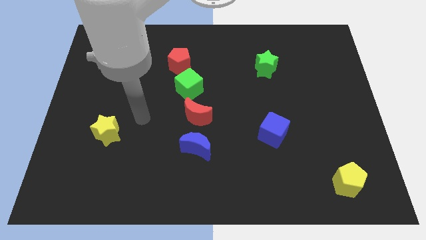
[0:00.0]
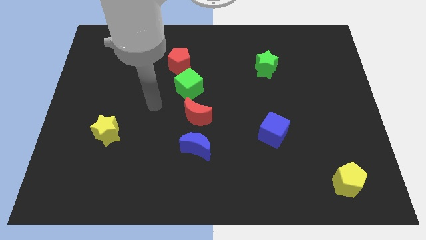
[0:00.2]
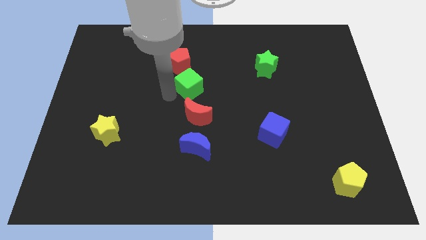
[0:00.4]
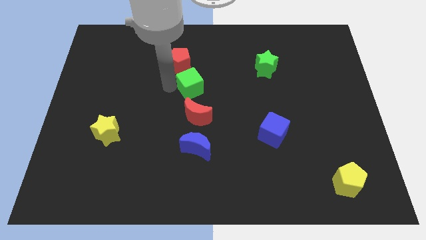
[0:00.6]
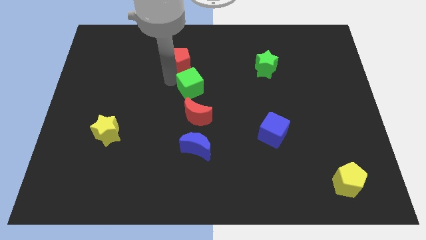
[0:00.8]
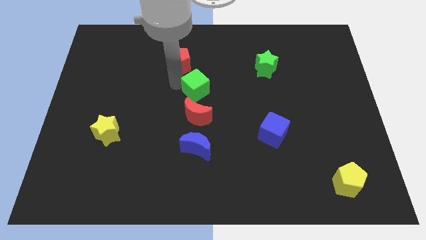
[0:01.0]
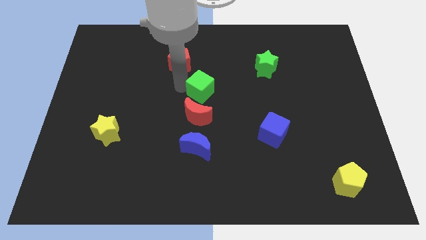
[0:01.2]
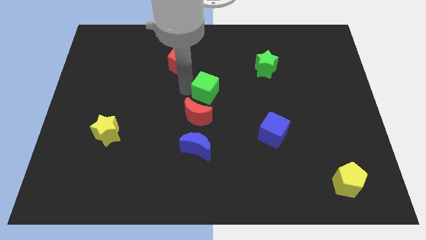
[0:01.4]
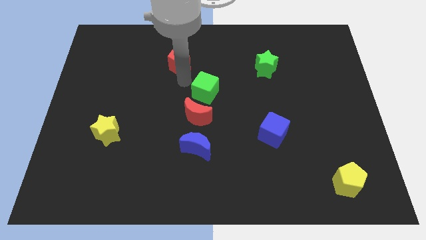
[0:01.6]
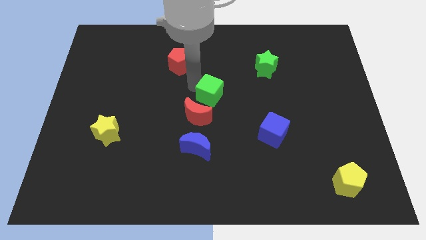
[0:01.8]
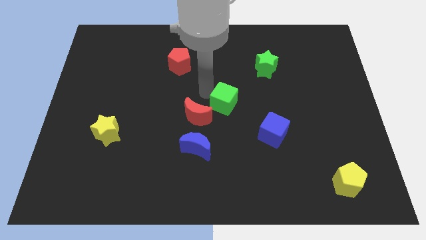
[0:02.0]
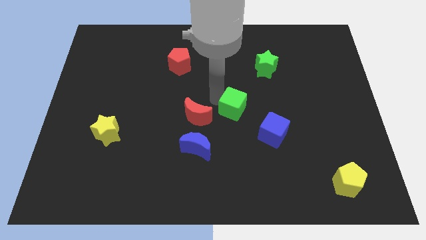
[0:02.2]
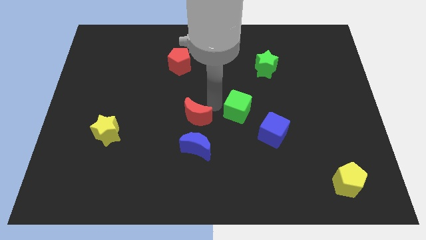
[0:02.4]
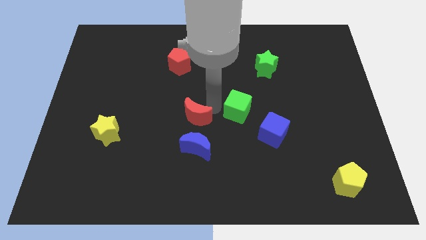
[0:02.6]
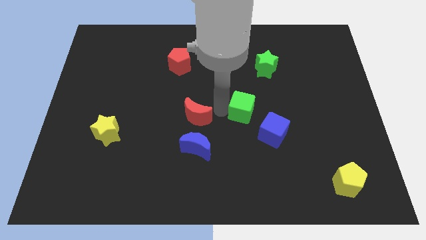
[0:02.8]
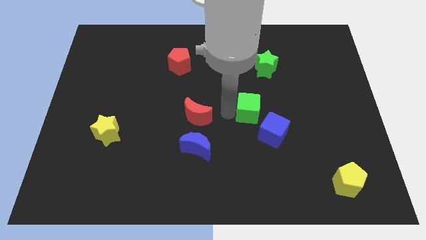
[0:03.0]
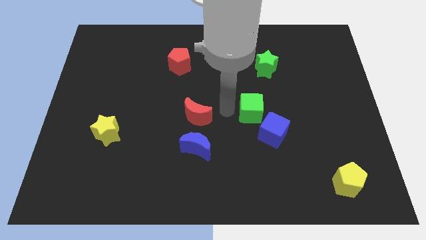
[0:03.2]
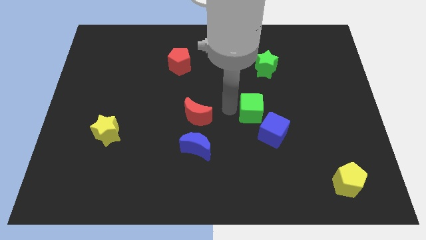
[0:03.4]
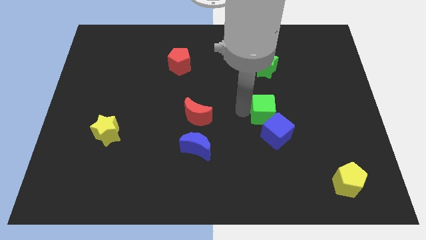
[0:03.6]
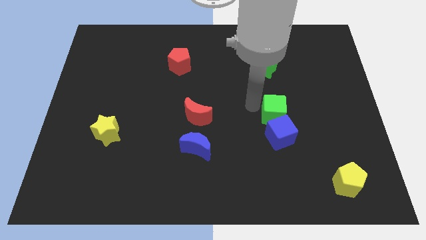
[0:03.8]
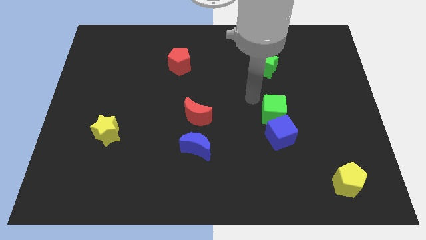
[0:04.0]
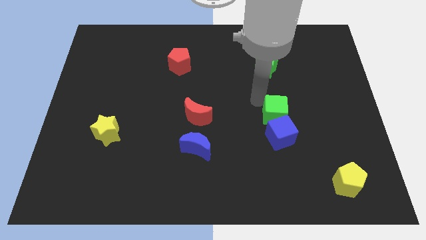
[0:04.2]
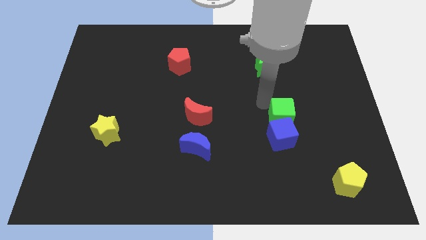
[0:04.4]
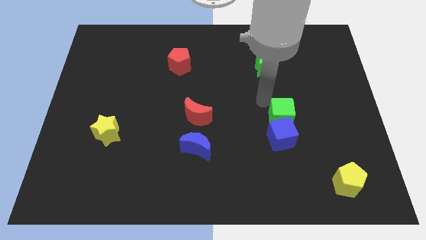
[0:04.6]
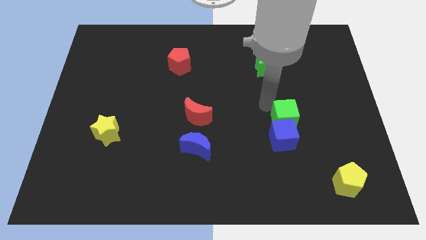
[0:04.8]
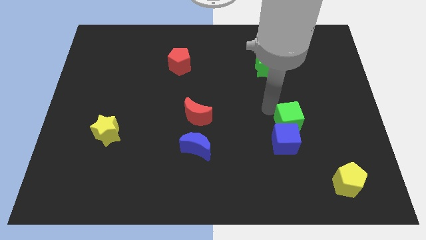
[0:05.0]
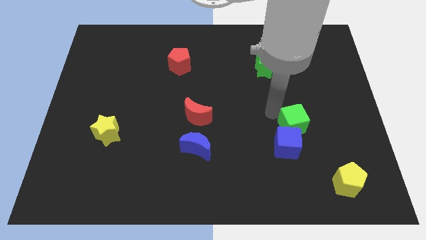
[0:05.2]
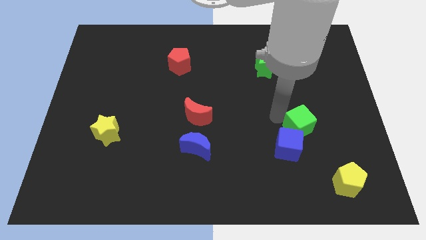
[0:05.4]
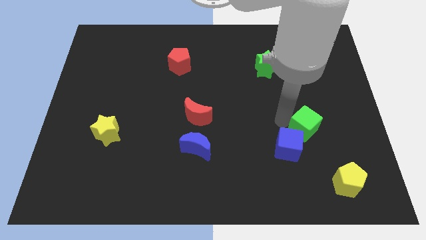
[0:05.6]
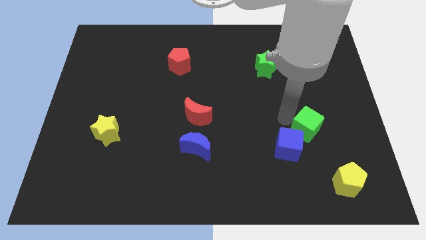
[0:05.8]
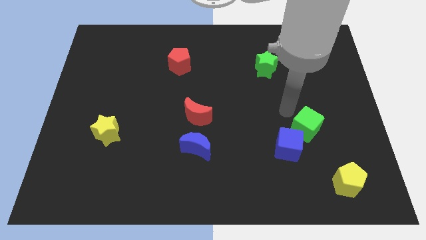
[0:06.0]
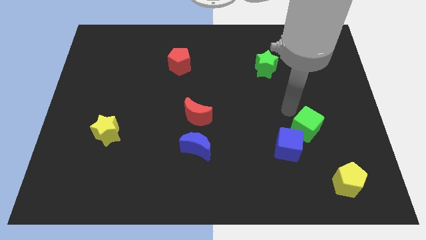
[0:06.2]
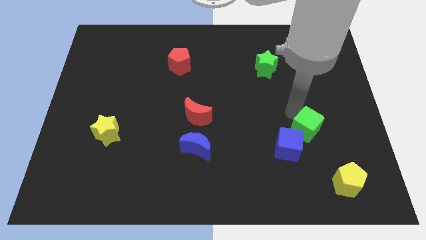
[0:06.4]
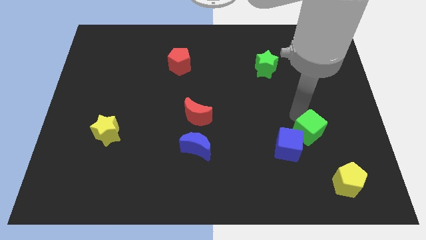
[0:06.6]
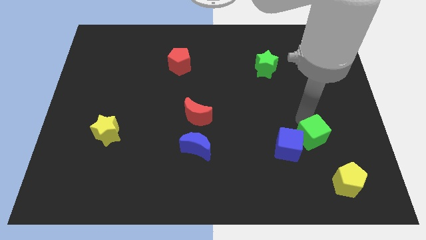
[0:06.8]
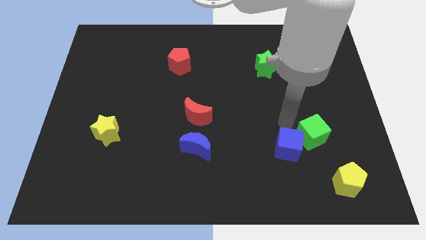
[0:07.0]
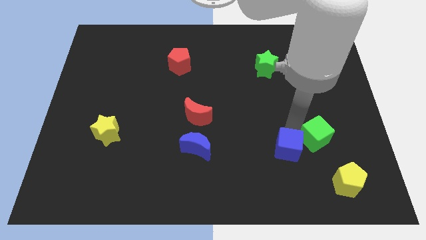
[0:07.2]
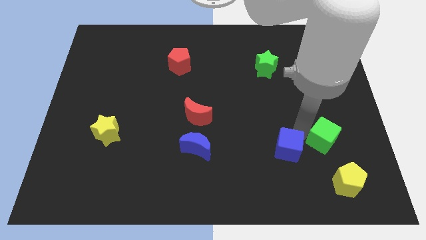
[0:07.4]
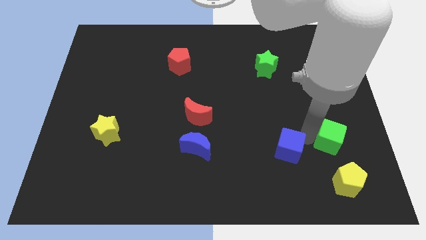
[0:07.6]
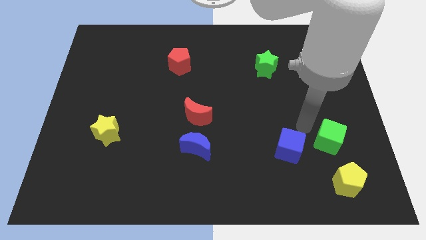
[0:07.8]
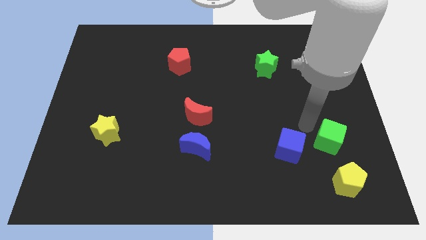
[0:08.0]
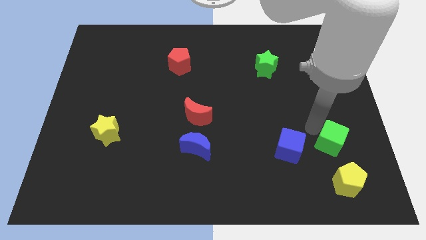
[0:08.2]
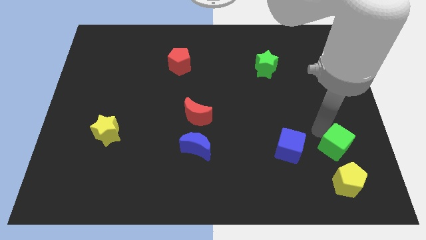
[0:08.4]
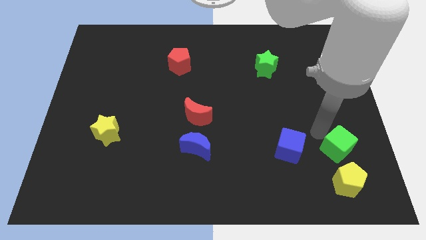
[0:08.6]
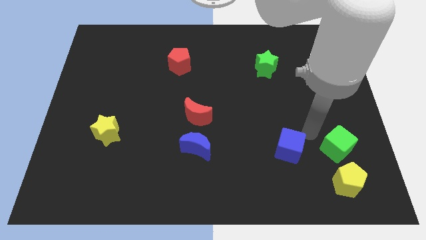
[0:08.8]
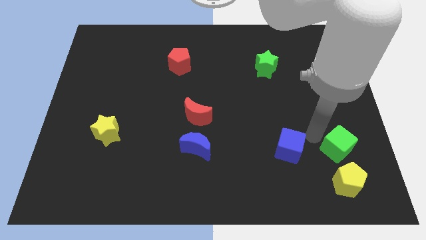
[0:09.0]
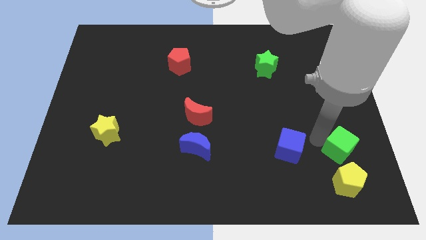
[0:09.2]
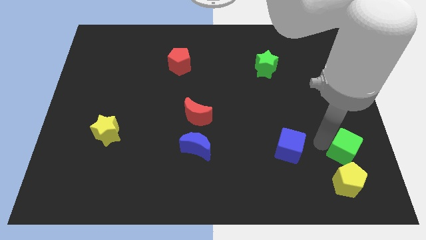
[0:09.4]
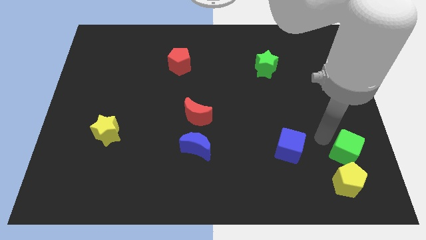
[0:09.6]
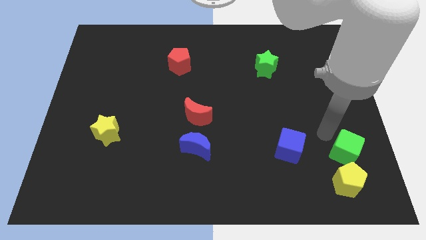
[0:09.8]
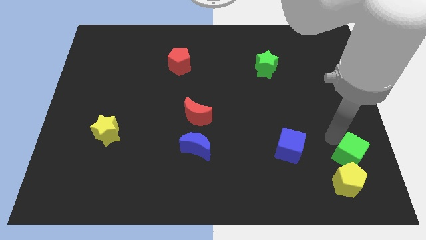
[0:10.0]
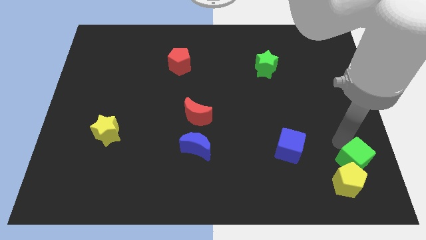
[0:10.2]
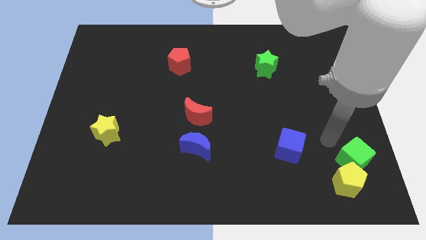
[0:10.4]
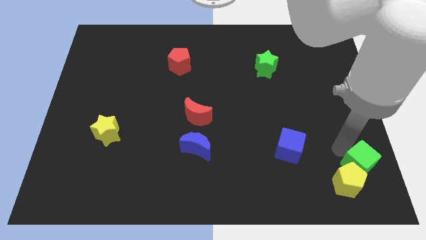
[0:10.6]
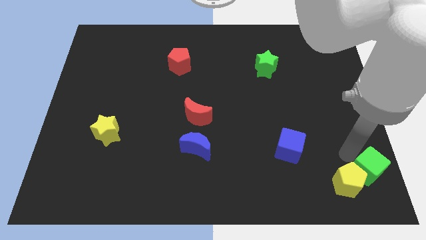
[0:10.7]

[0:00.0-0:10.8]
push the green cube to the bottom right

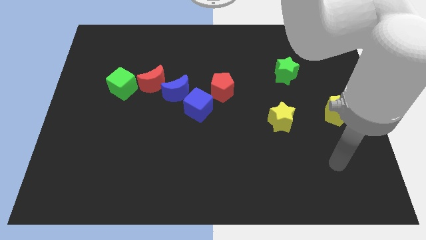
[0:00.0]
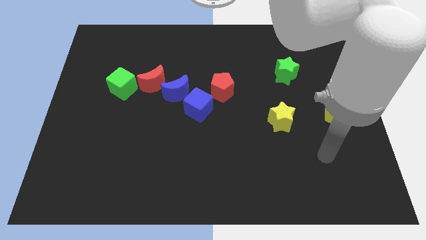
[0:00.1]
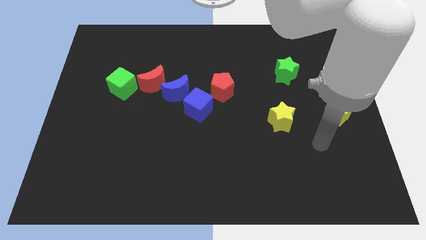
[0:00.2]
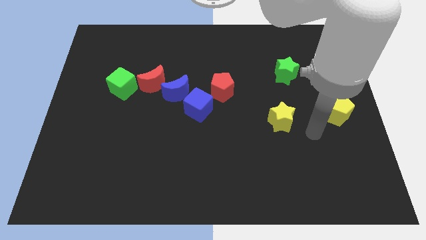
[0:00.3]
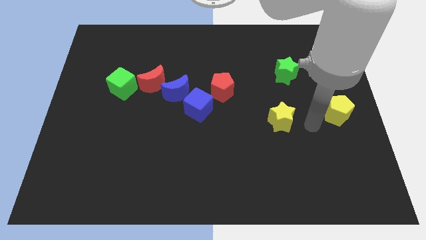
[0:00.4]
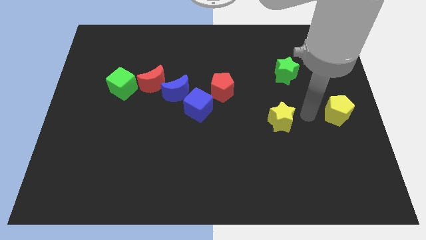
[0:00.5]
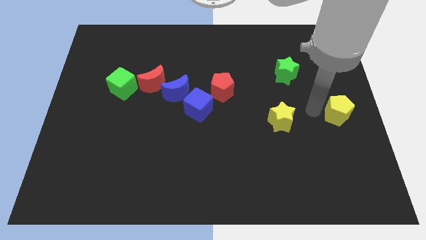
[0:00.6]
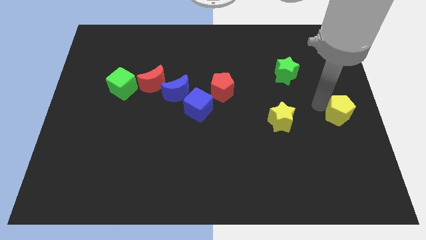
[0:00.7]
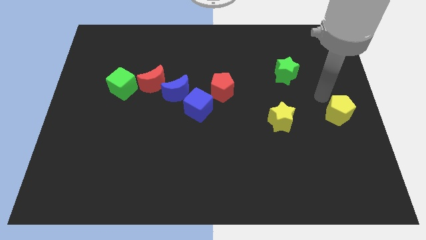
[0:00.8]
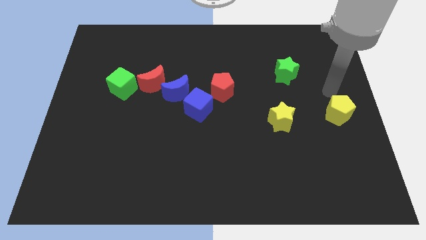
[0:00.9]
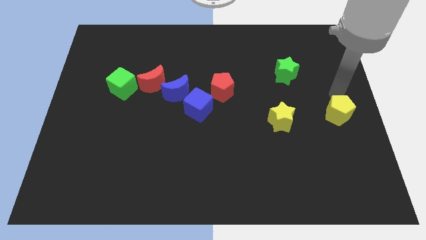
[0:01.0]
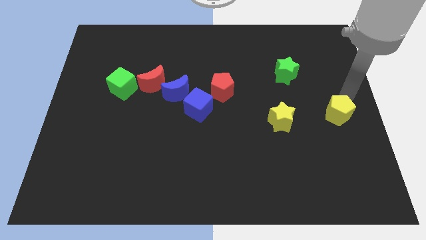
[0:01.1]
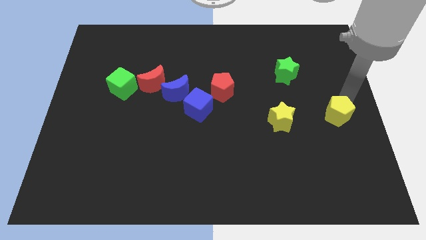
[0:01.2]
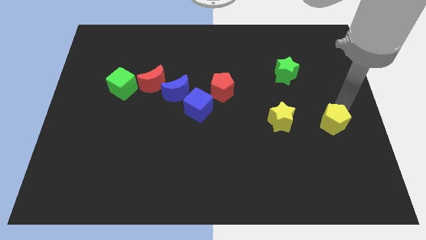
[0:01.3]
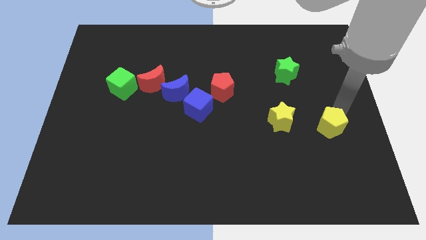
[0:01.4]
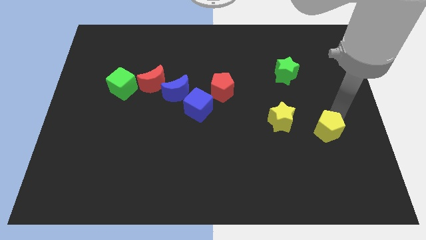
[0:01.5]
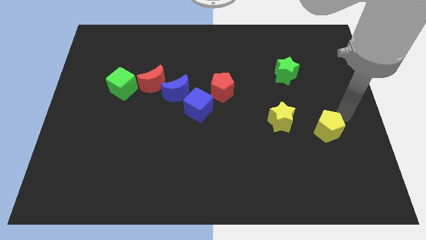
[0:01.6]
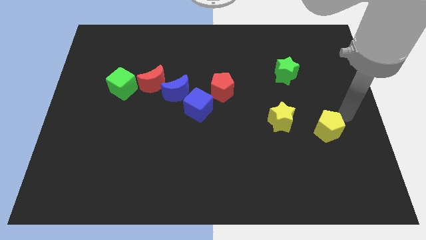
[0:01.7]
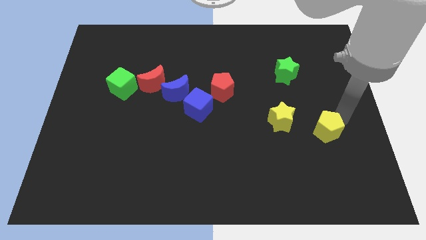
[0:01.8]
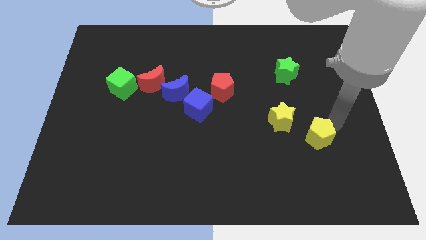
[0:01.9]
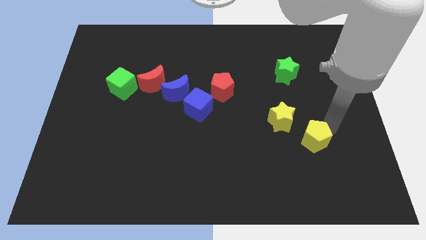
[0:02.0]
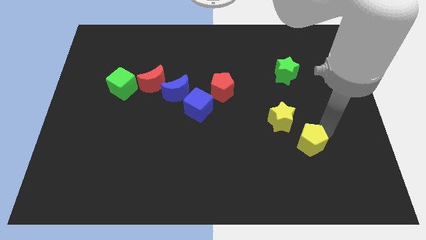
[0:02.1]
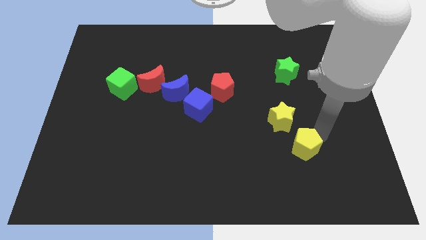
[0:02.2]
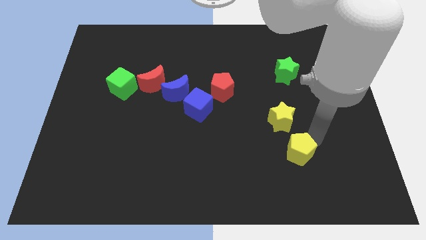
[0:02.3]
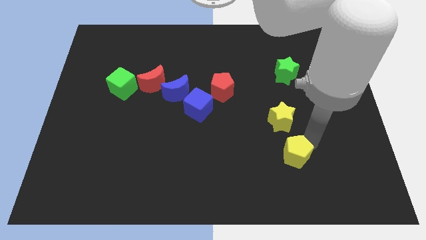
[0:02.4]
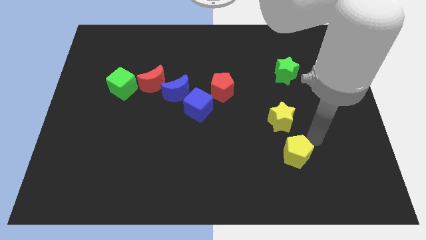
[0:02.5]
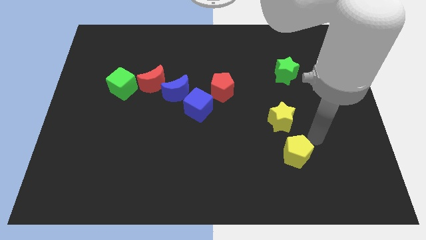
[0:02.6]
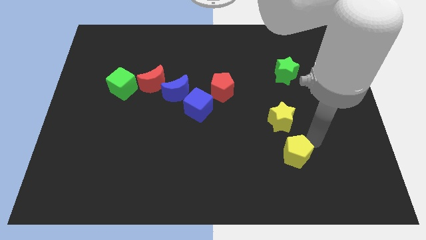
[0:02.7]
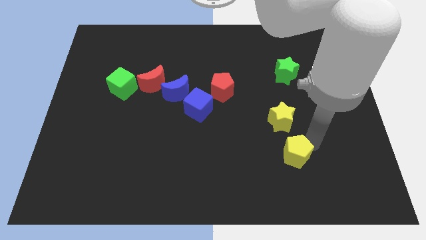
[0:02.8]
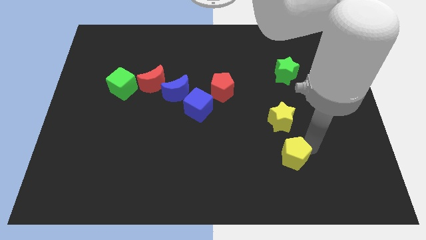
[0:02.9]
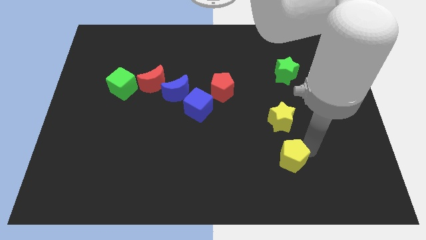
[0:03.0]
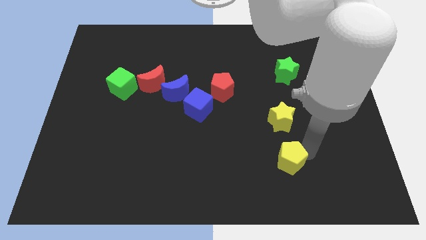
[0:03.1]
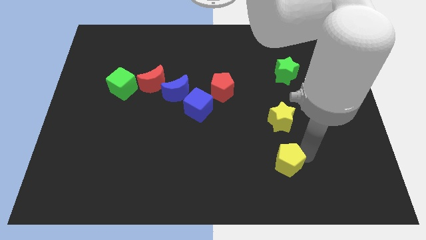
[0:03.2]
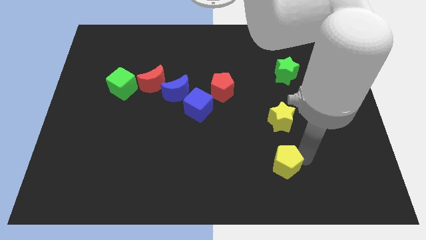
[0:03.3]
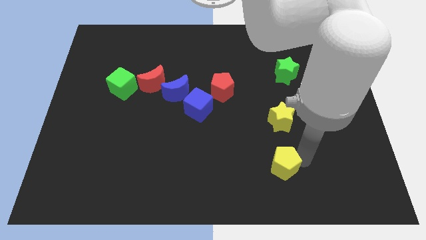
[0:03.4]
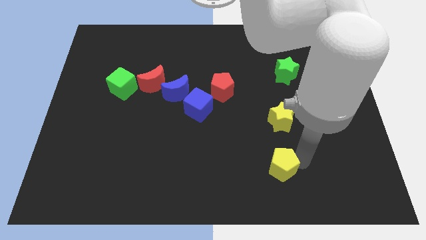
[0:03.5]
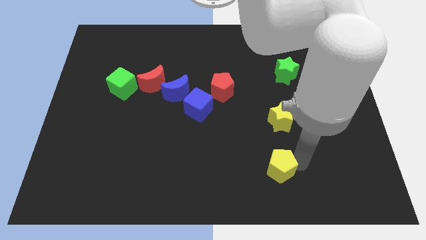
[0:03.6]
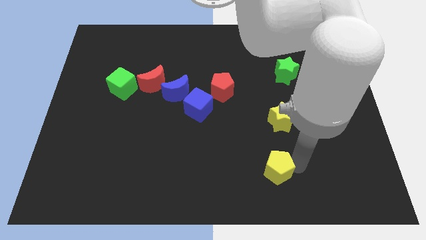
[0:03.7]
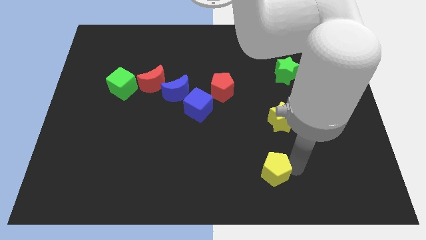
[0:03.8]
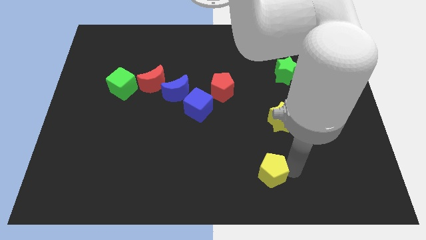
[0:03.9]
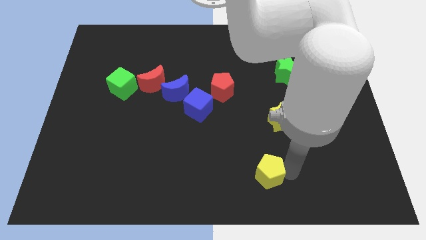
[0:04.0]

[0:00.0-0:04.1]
push the yellow pentagon to the bottom side
